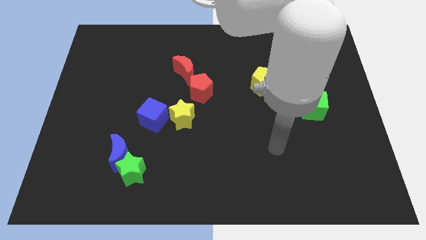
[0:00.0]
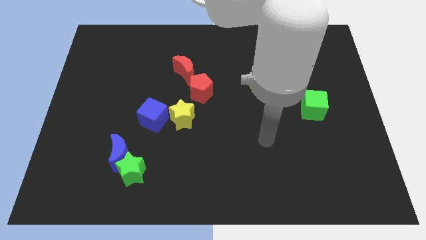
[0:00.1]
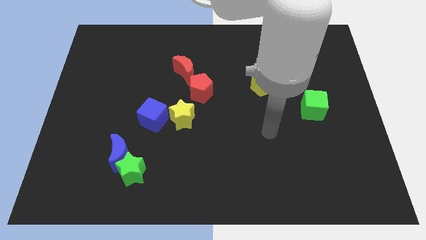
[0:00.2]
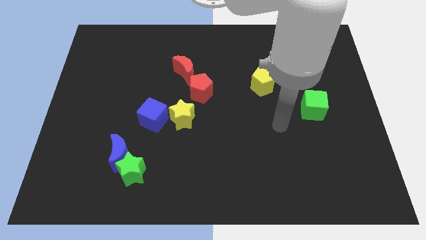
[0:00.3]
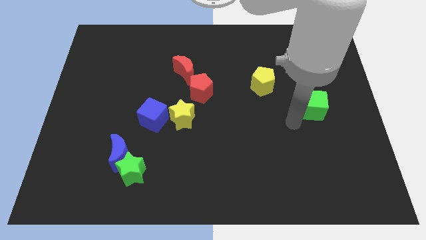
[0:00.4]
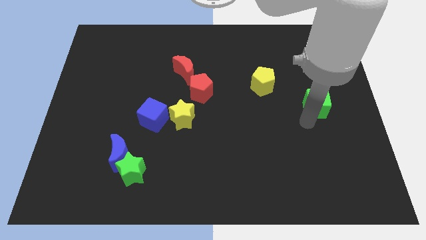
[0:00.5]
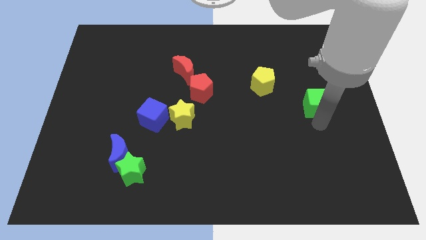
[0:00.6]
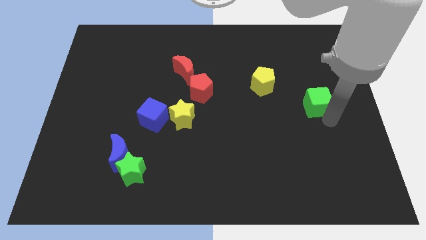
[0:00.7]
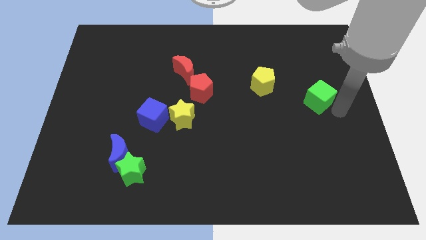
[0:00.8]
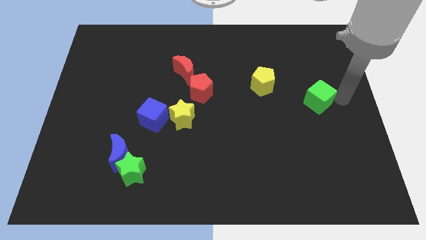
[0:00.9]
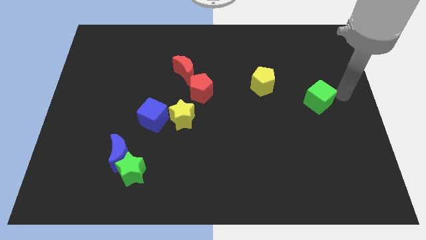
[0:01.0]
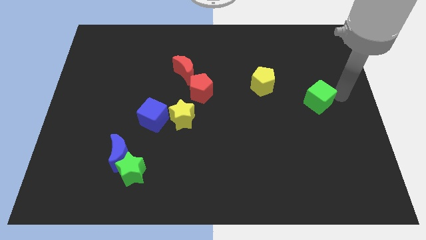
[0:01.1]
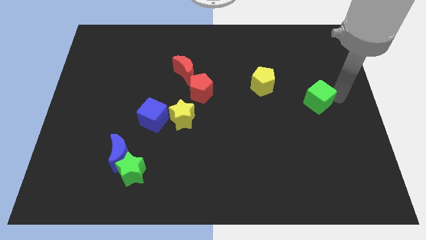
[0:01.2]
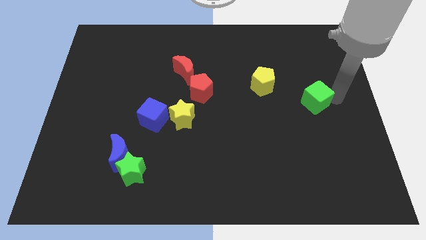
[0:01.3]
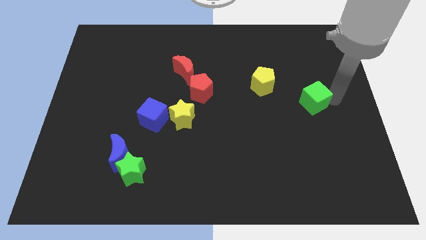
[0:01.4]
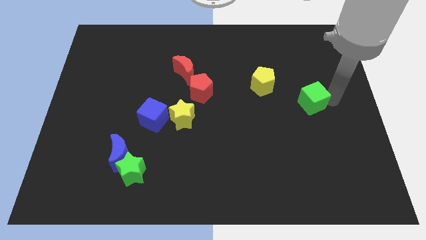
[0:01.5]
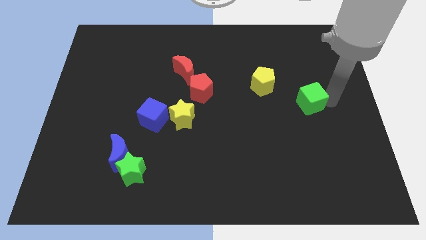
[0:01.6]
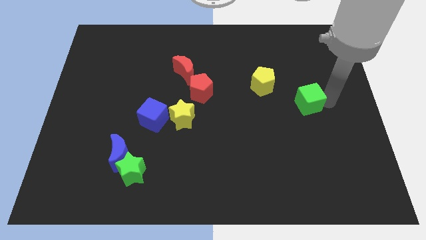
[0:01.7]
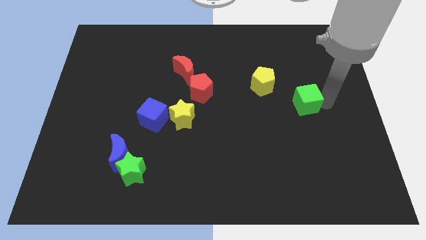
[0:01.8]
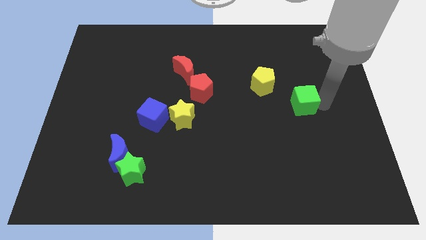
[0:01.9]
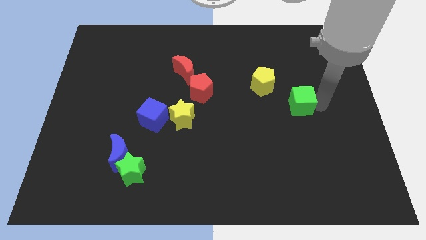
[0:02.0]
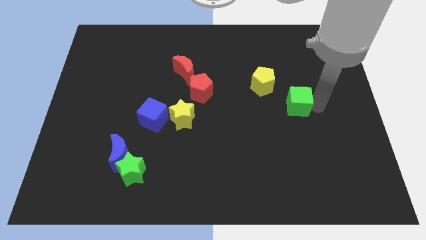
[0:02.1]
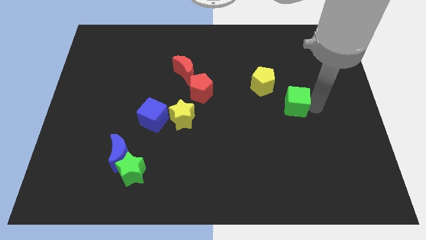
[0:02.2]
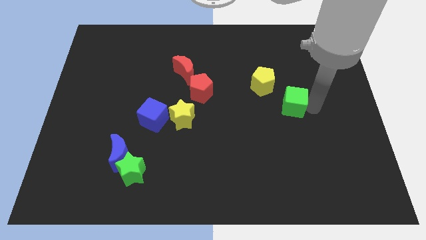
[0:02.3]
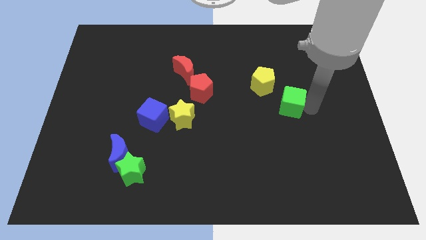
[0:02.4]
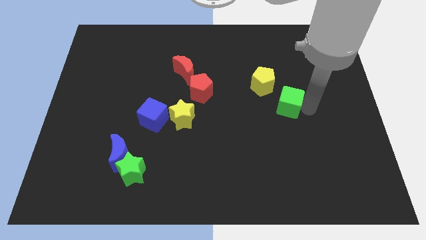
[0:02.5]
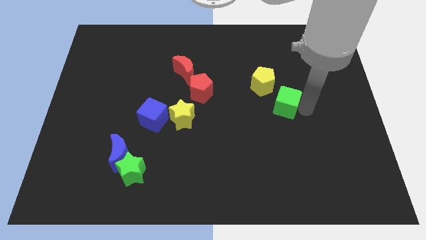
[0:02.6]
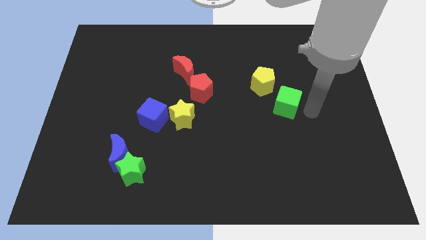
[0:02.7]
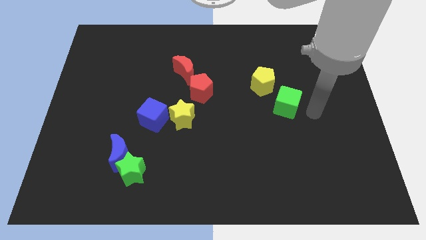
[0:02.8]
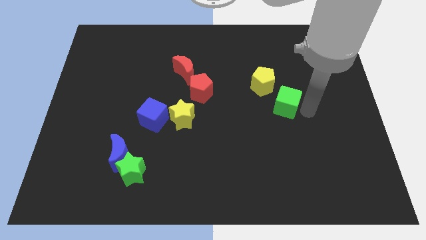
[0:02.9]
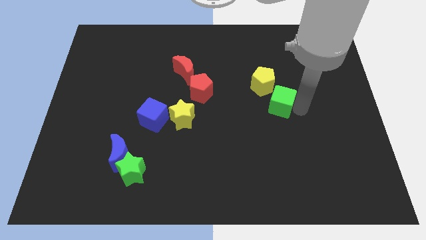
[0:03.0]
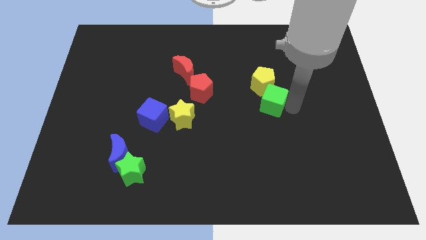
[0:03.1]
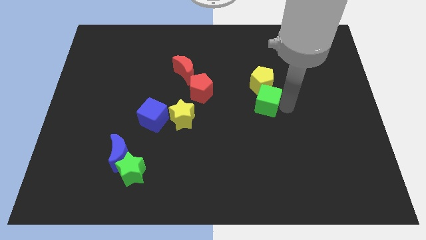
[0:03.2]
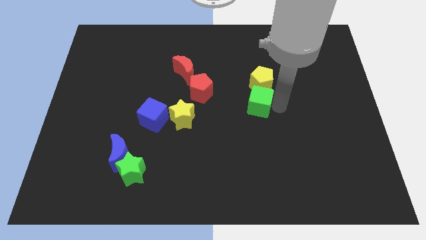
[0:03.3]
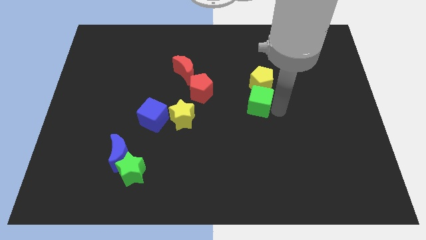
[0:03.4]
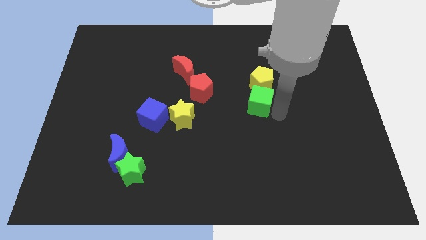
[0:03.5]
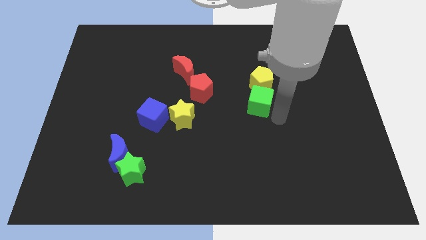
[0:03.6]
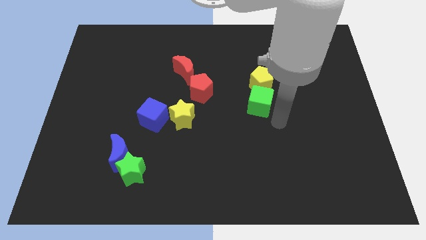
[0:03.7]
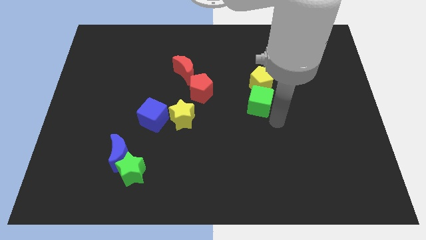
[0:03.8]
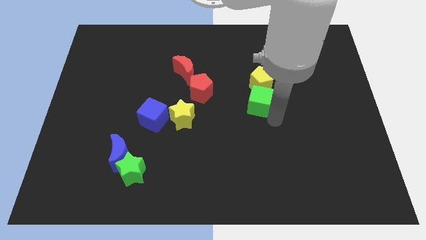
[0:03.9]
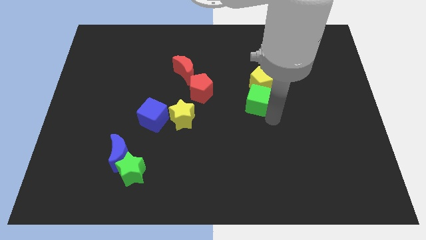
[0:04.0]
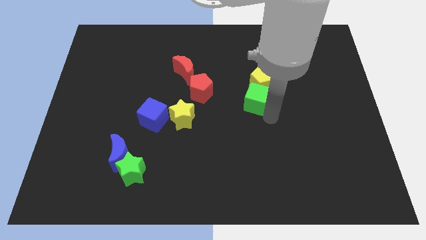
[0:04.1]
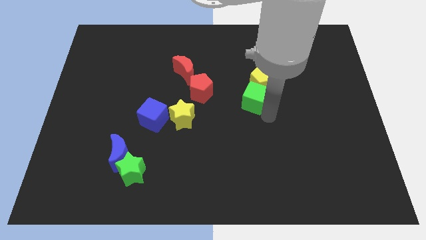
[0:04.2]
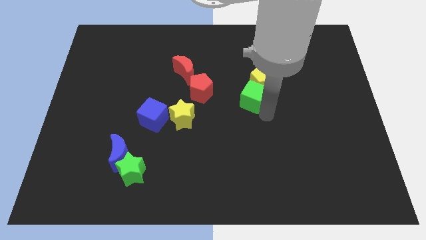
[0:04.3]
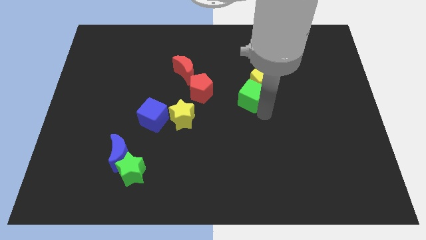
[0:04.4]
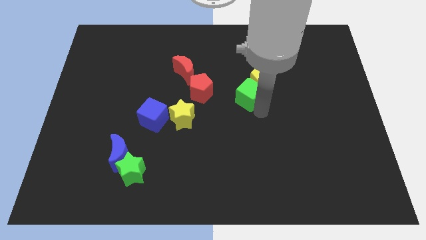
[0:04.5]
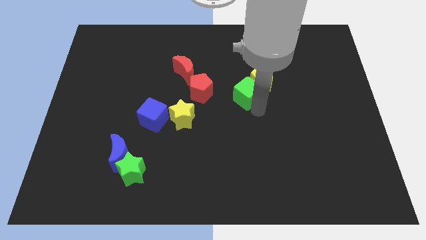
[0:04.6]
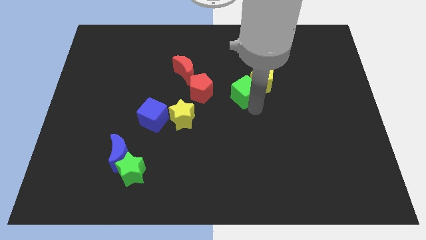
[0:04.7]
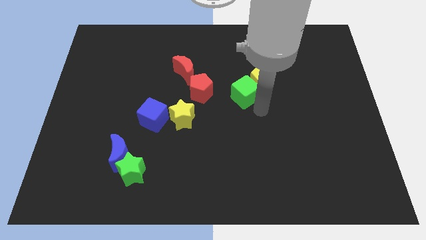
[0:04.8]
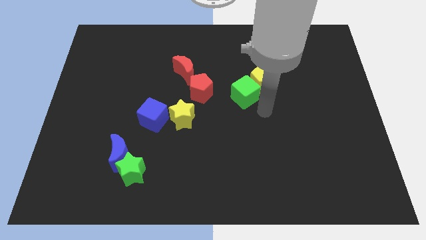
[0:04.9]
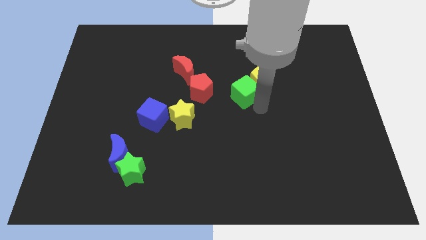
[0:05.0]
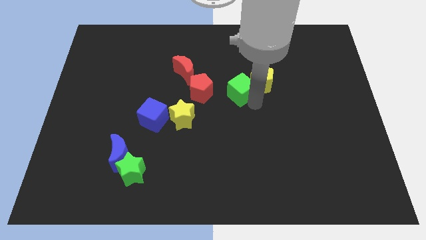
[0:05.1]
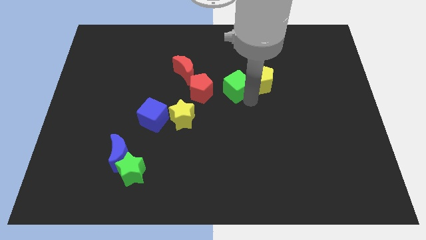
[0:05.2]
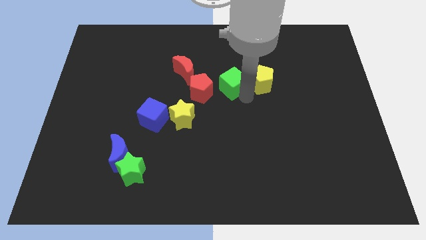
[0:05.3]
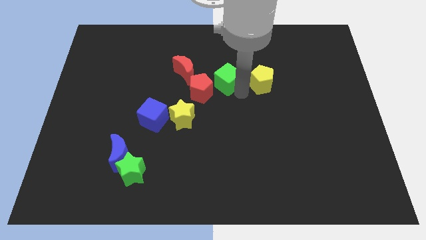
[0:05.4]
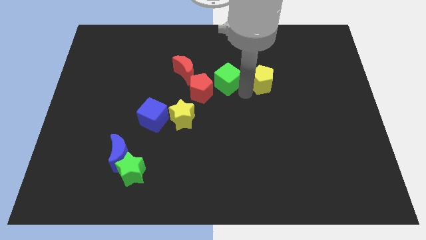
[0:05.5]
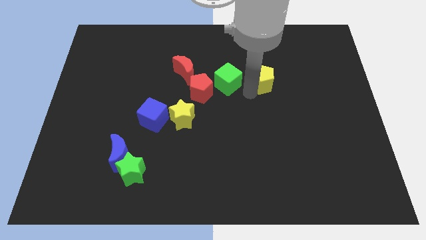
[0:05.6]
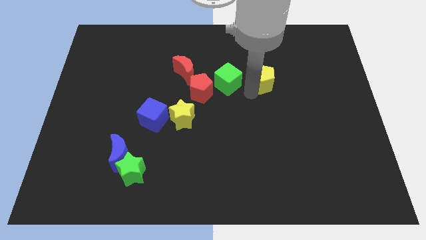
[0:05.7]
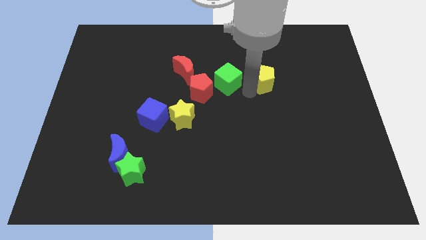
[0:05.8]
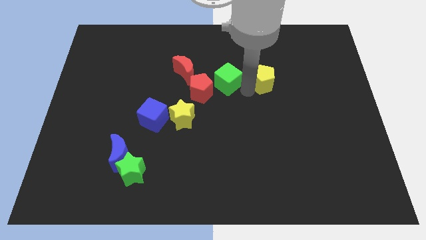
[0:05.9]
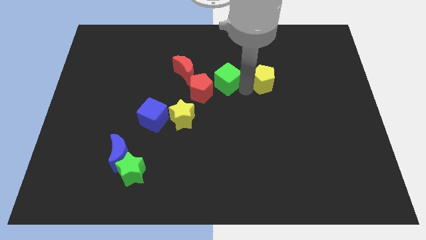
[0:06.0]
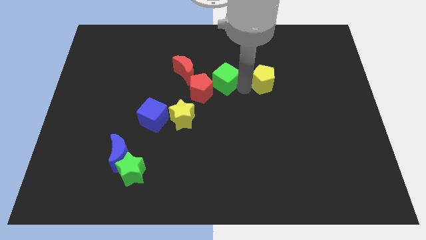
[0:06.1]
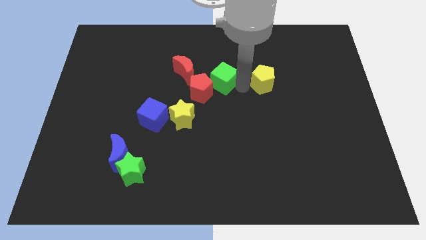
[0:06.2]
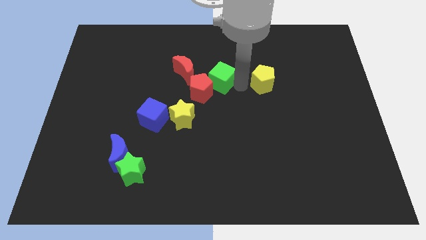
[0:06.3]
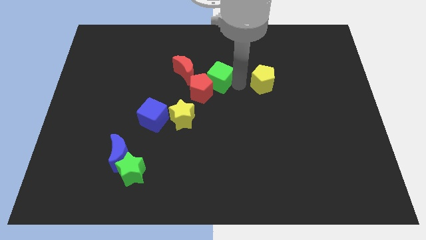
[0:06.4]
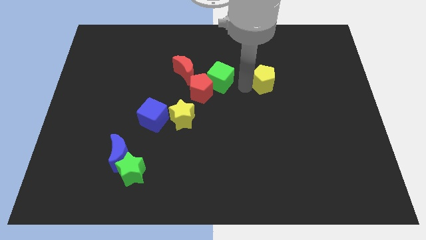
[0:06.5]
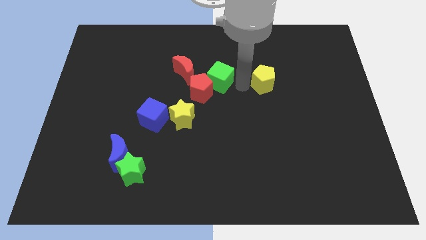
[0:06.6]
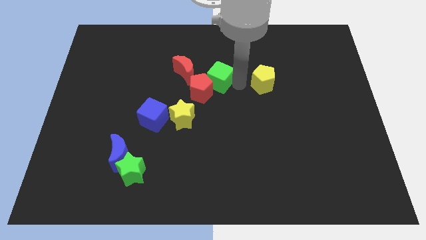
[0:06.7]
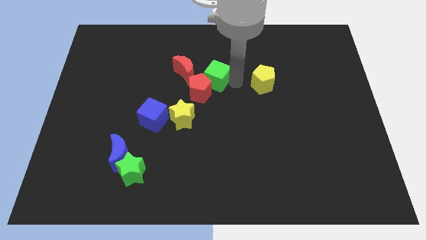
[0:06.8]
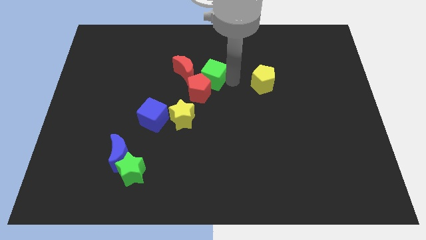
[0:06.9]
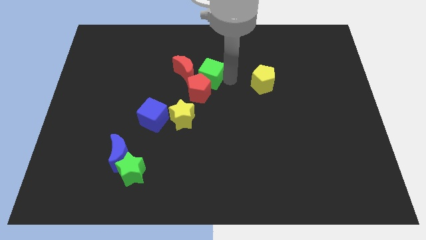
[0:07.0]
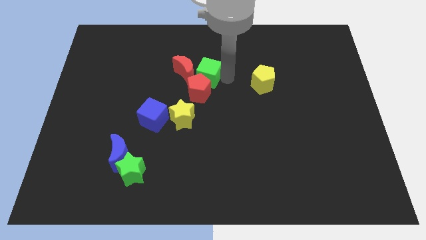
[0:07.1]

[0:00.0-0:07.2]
push the green cube to the red moon
